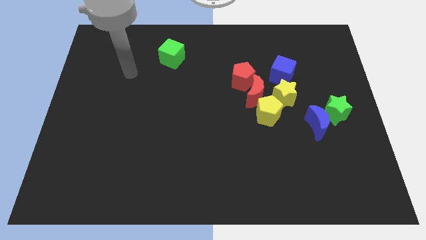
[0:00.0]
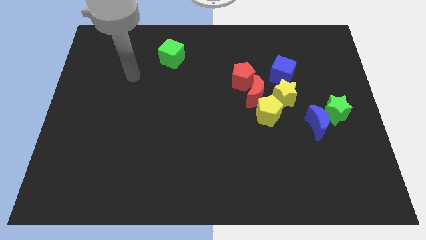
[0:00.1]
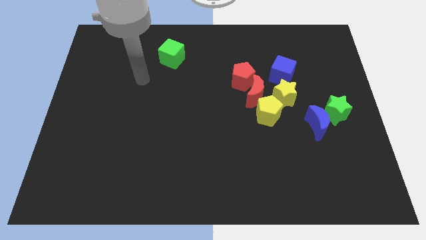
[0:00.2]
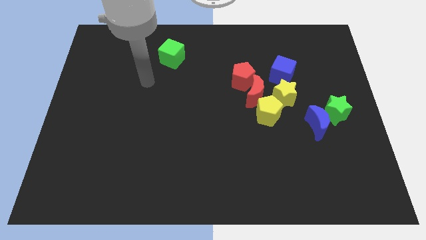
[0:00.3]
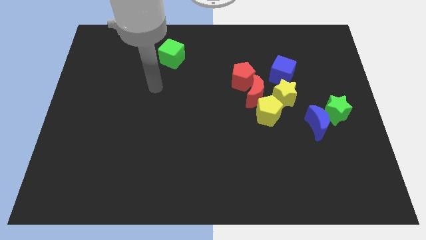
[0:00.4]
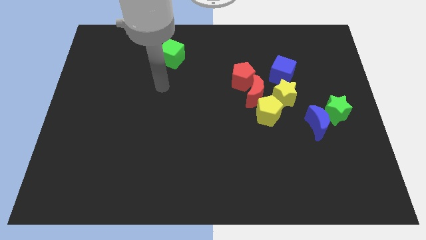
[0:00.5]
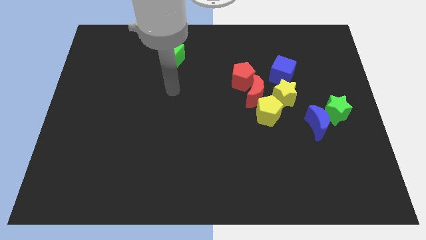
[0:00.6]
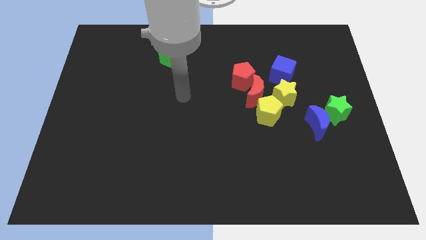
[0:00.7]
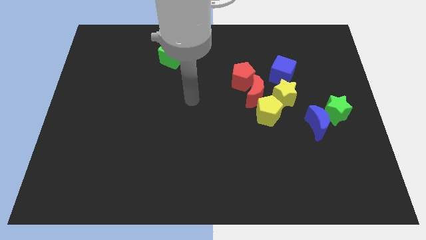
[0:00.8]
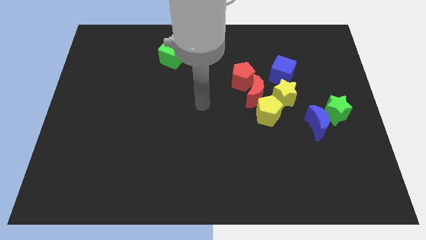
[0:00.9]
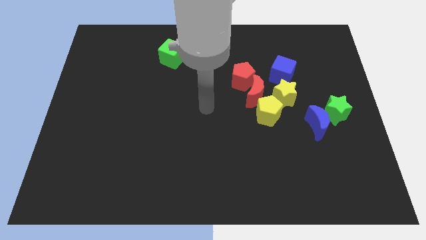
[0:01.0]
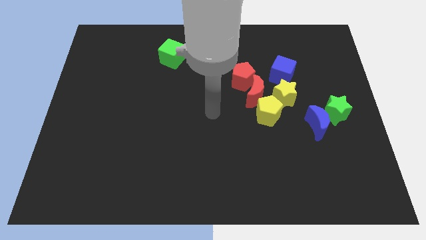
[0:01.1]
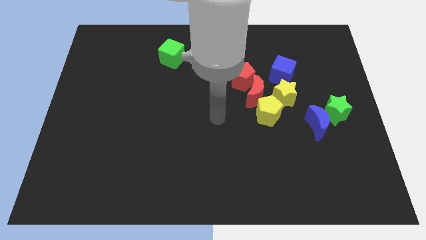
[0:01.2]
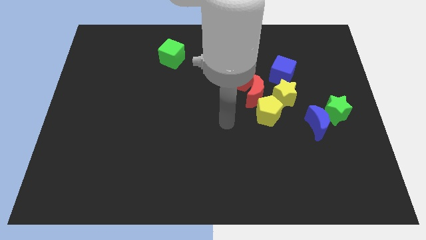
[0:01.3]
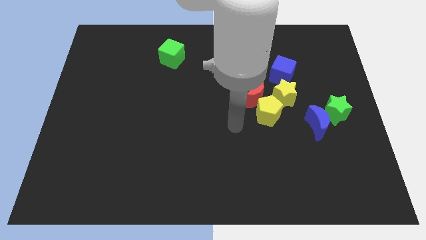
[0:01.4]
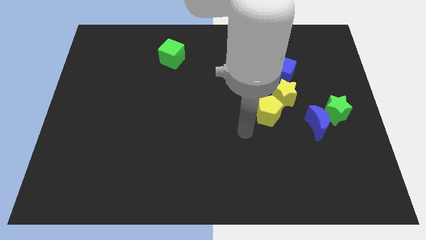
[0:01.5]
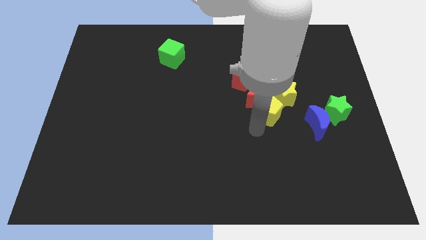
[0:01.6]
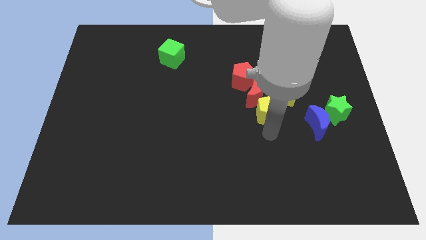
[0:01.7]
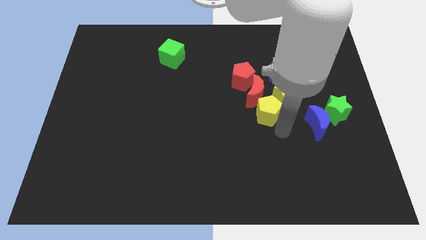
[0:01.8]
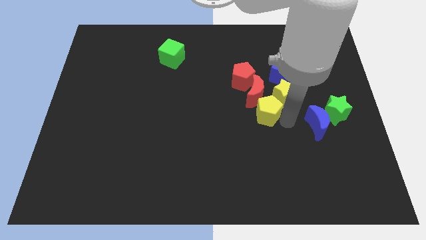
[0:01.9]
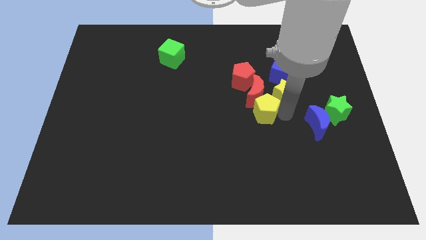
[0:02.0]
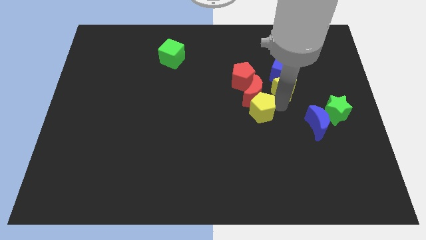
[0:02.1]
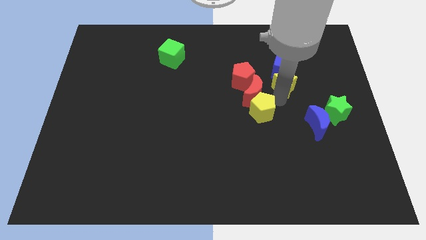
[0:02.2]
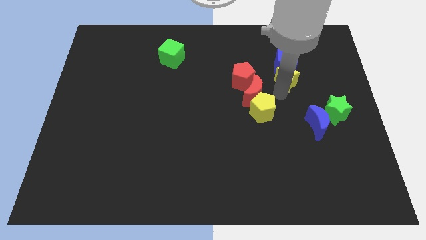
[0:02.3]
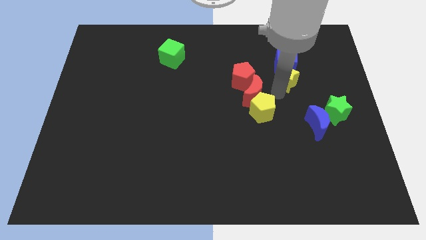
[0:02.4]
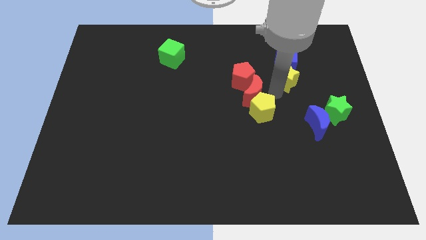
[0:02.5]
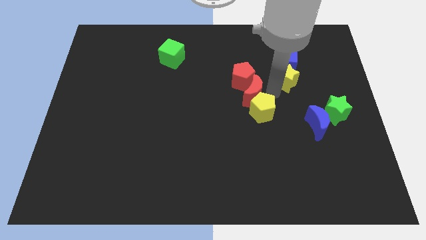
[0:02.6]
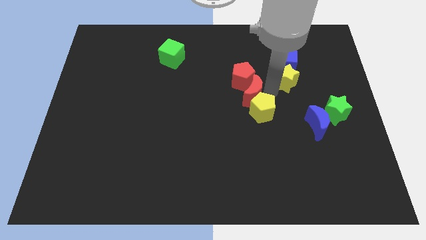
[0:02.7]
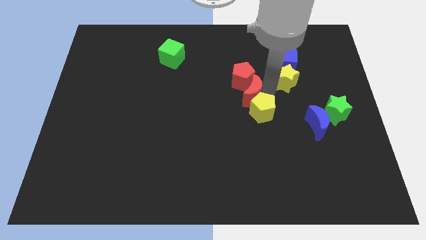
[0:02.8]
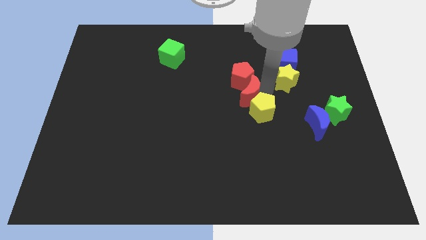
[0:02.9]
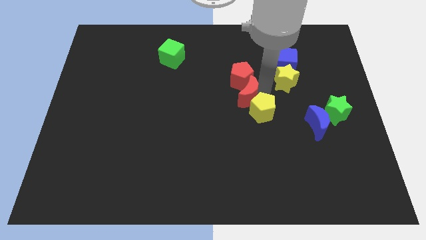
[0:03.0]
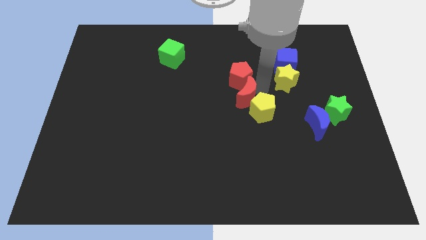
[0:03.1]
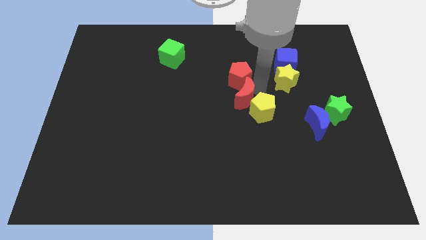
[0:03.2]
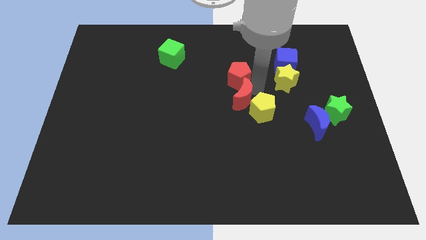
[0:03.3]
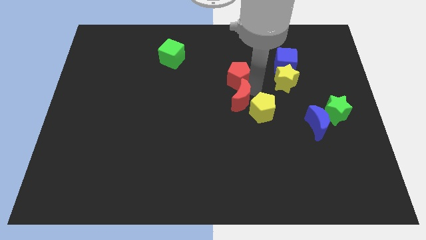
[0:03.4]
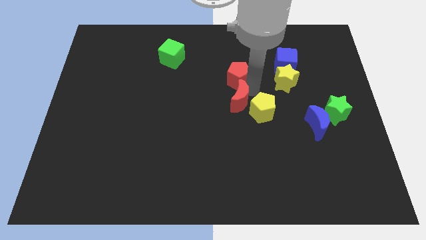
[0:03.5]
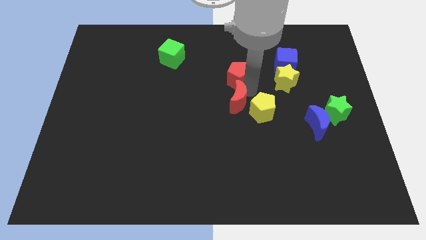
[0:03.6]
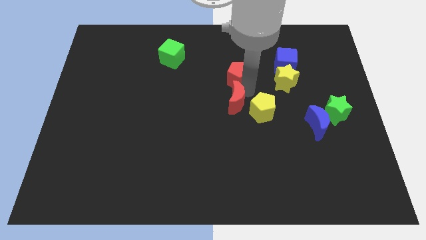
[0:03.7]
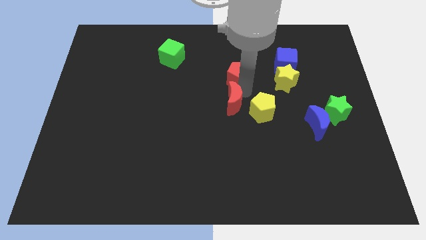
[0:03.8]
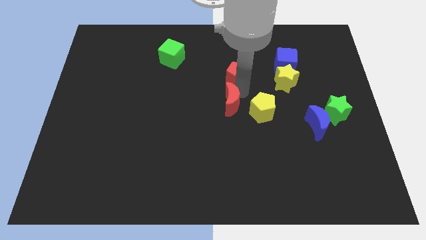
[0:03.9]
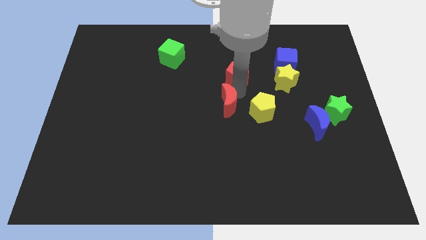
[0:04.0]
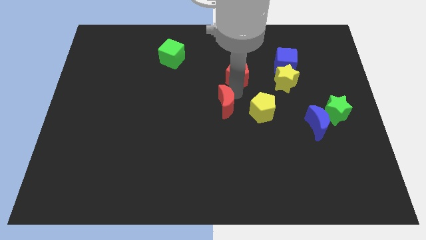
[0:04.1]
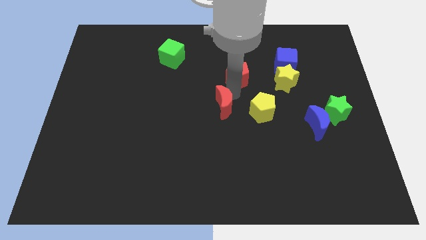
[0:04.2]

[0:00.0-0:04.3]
slightly push the red moon down and left diagonally

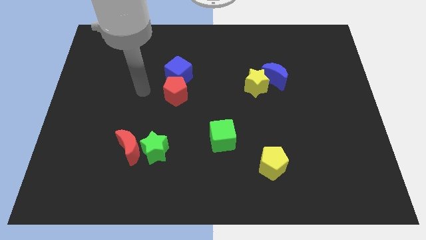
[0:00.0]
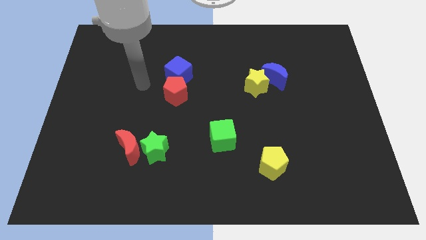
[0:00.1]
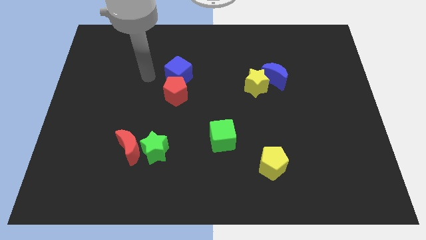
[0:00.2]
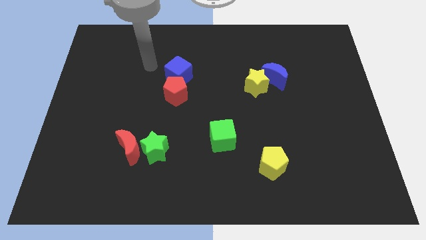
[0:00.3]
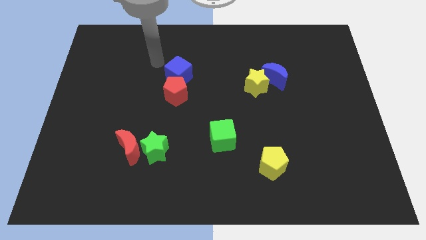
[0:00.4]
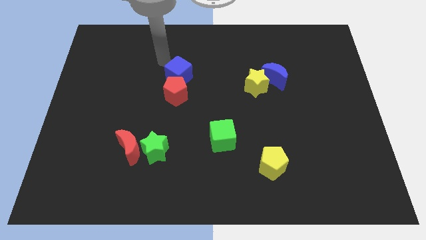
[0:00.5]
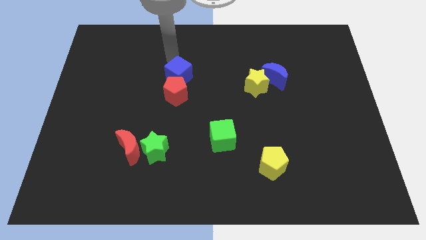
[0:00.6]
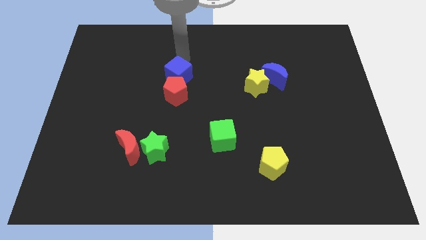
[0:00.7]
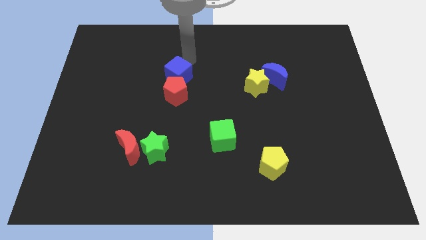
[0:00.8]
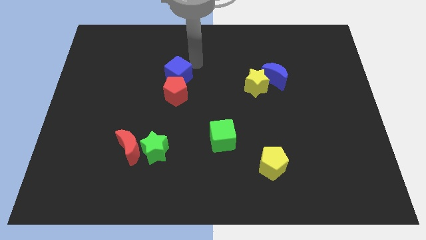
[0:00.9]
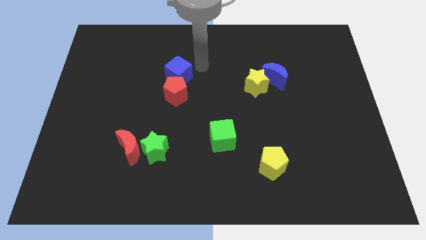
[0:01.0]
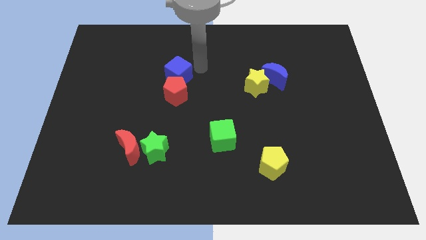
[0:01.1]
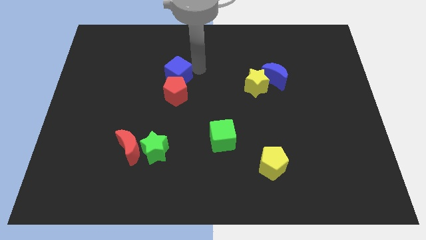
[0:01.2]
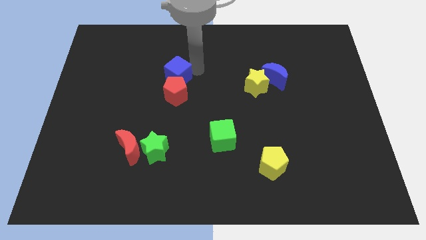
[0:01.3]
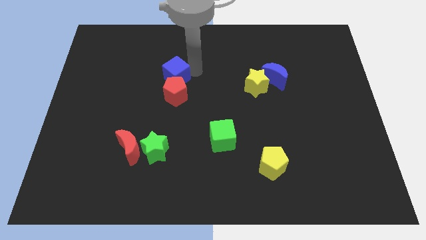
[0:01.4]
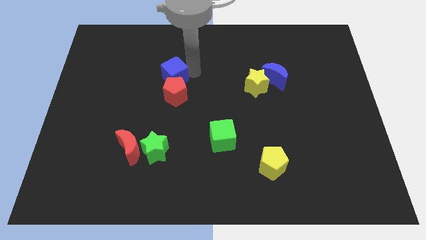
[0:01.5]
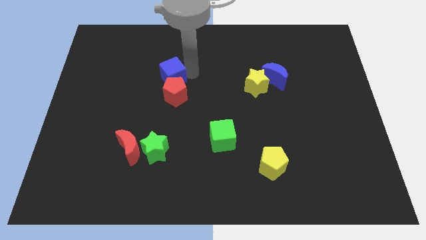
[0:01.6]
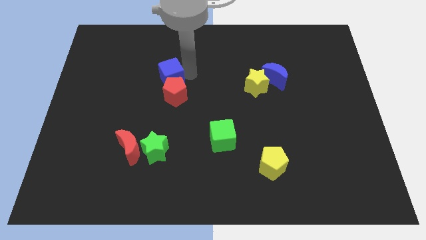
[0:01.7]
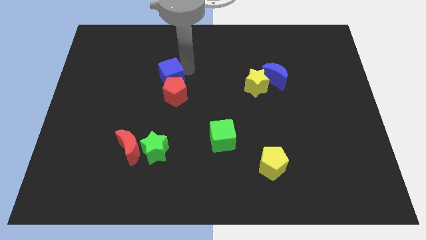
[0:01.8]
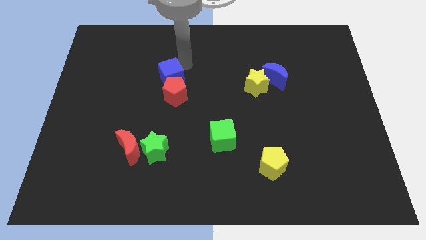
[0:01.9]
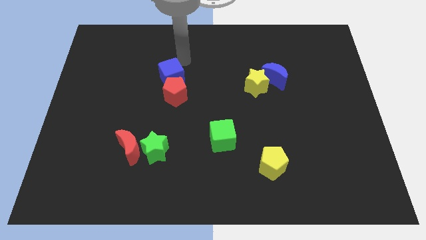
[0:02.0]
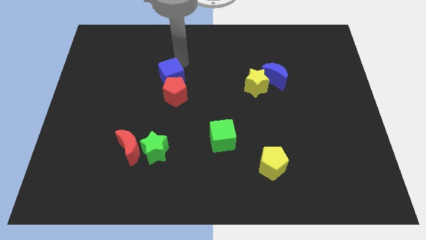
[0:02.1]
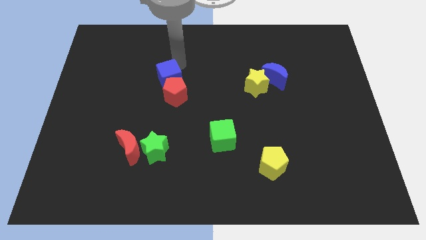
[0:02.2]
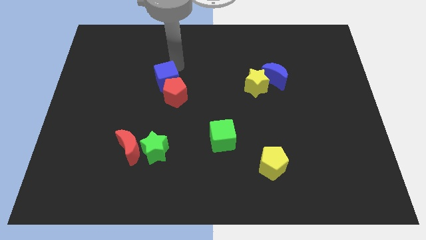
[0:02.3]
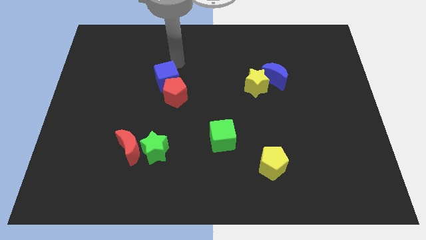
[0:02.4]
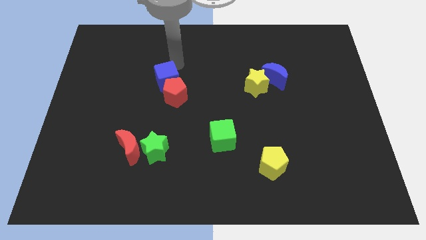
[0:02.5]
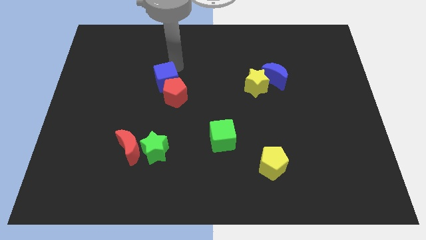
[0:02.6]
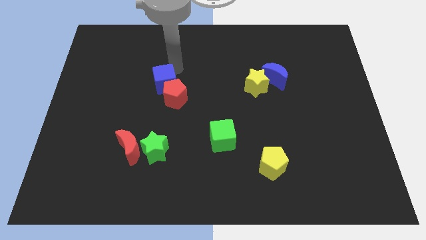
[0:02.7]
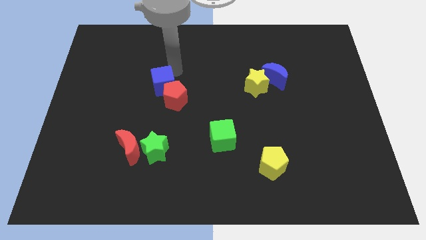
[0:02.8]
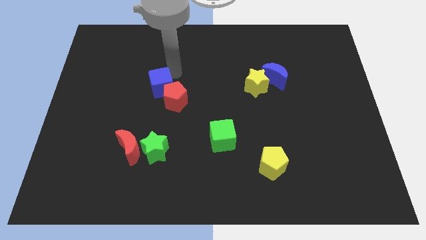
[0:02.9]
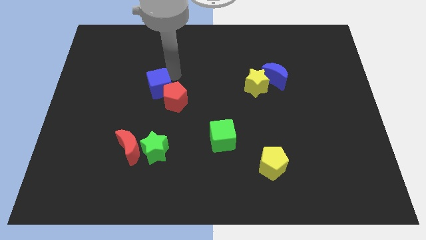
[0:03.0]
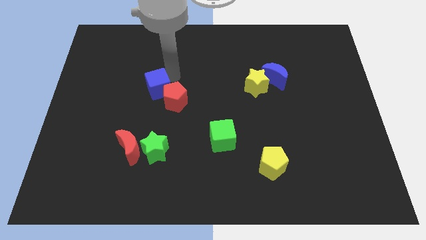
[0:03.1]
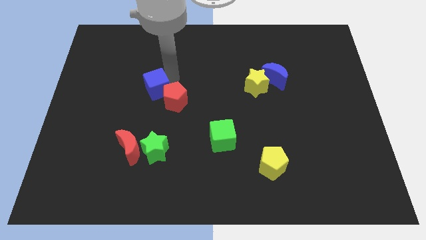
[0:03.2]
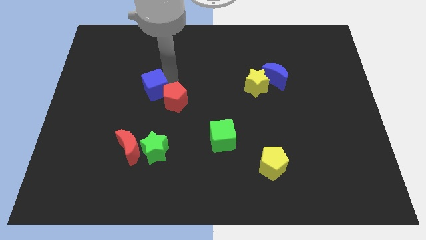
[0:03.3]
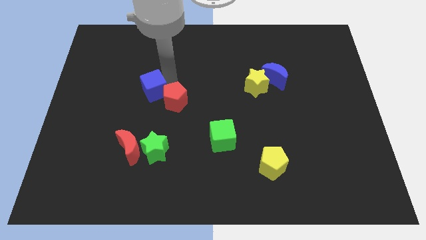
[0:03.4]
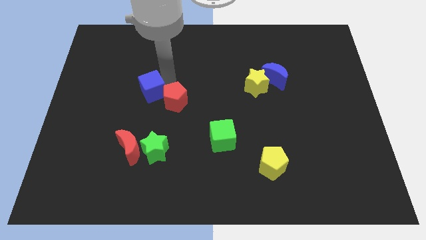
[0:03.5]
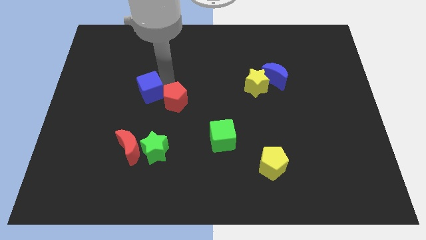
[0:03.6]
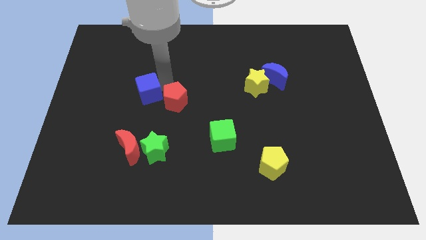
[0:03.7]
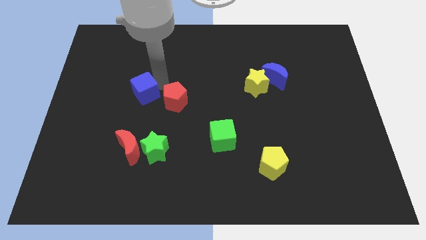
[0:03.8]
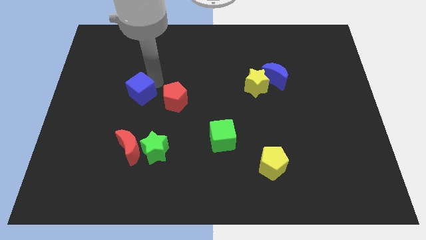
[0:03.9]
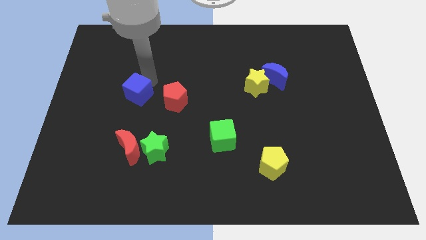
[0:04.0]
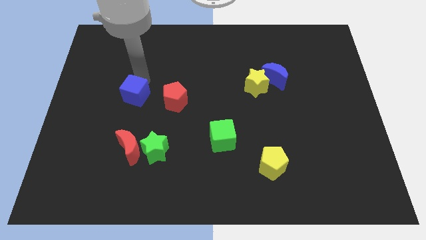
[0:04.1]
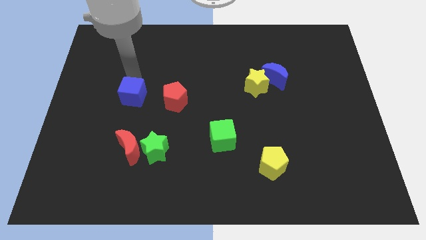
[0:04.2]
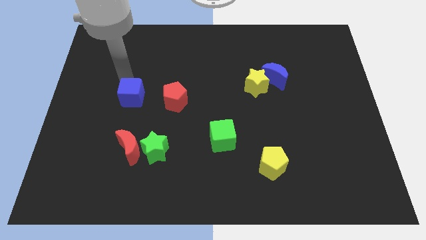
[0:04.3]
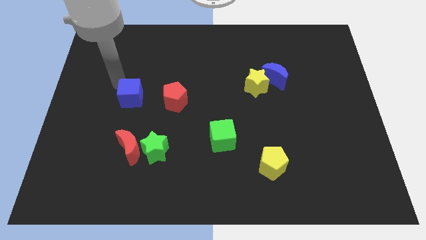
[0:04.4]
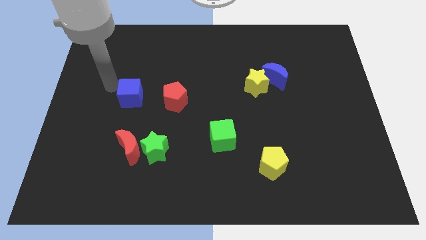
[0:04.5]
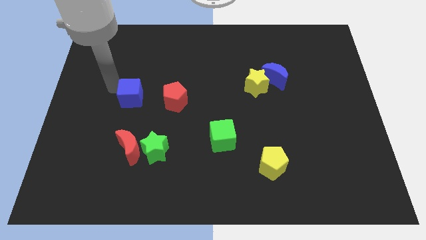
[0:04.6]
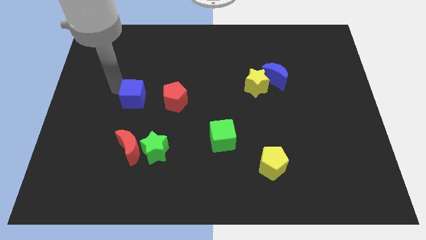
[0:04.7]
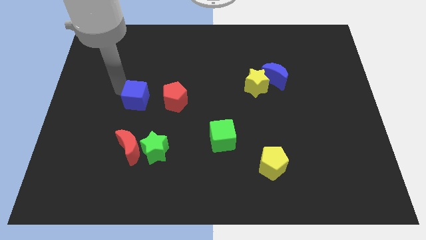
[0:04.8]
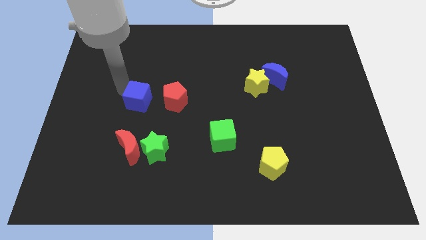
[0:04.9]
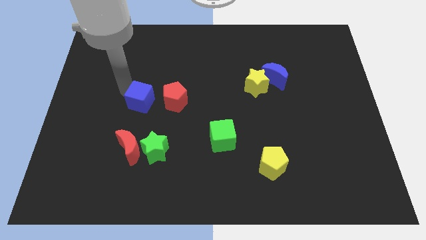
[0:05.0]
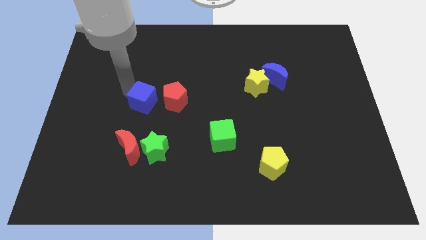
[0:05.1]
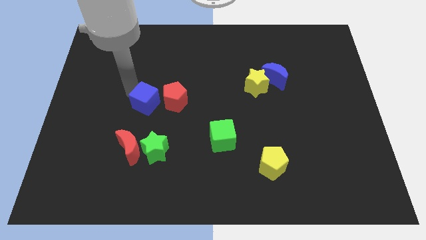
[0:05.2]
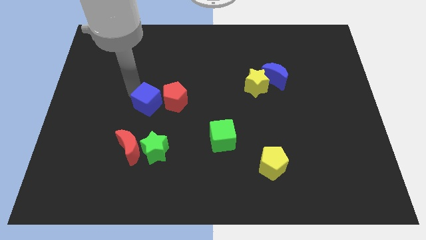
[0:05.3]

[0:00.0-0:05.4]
slightly move the blue cube downwards
